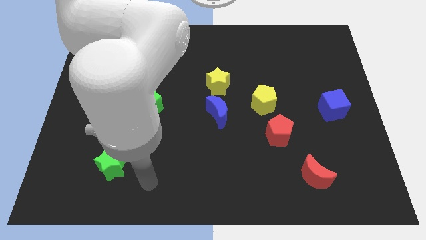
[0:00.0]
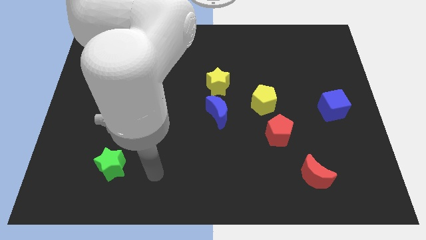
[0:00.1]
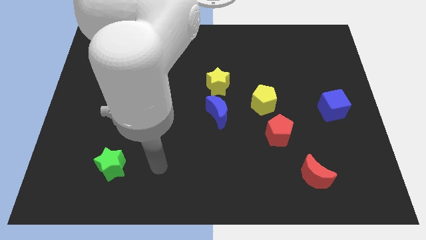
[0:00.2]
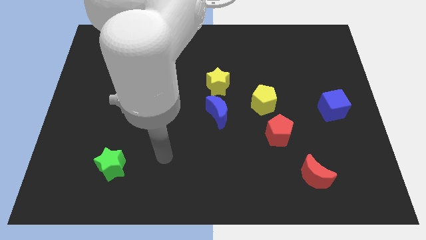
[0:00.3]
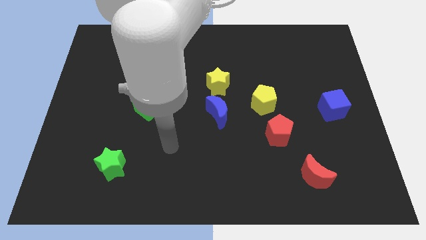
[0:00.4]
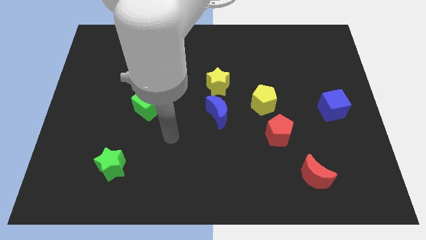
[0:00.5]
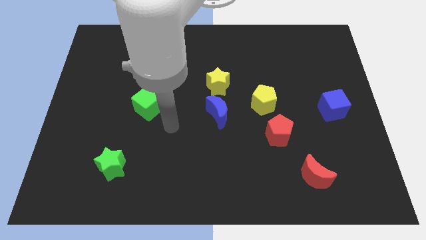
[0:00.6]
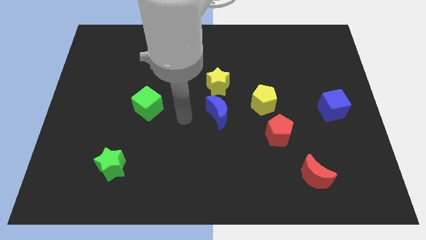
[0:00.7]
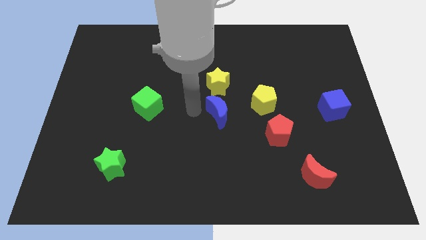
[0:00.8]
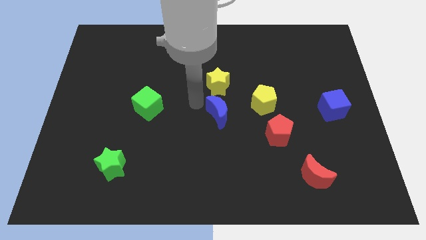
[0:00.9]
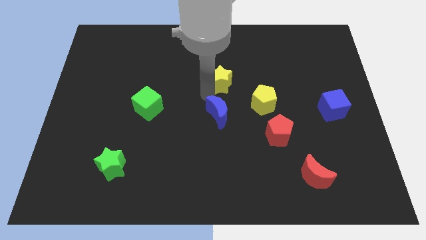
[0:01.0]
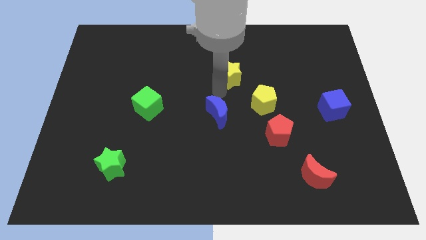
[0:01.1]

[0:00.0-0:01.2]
move the blue moon away from the yellow star

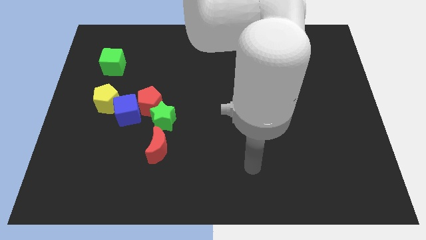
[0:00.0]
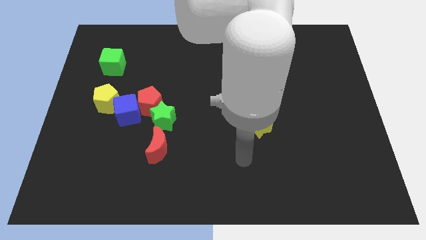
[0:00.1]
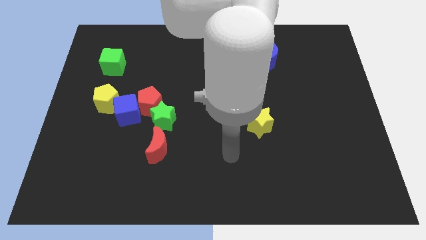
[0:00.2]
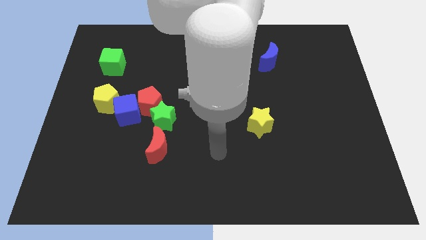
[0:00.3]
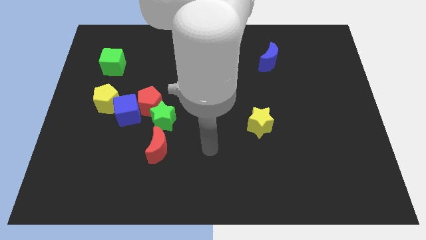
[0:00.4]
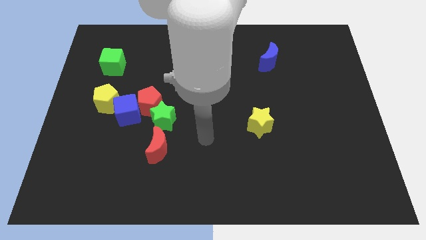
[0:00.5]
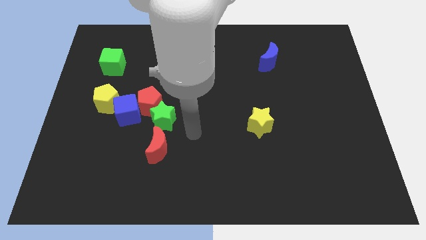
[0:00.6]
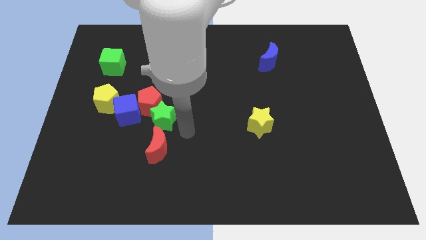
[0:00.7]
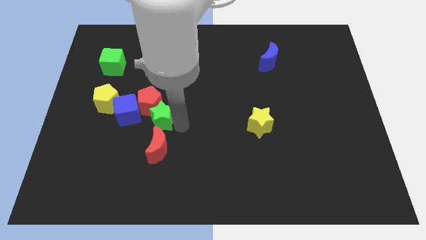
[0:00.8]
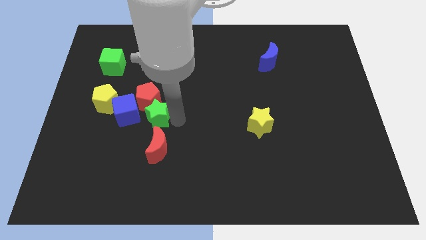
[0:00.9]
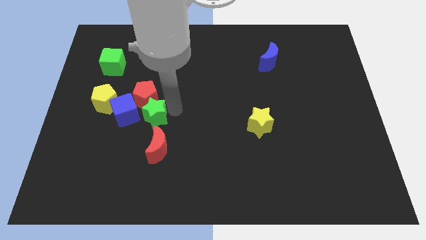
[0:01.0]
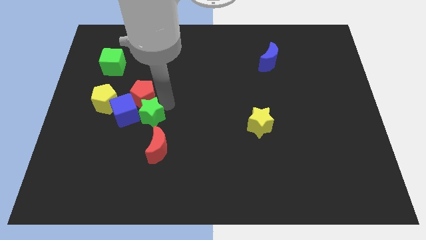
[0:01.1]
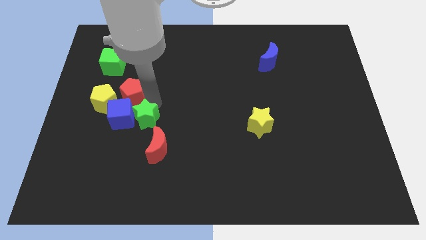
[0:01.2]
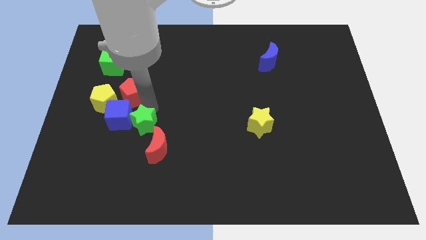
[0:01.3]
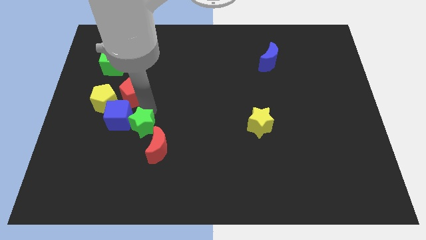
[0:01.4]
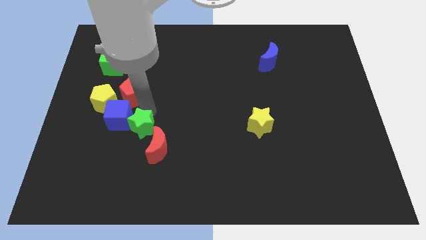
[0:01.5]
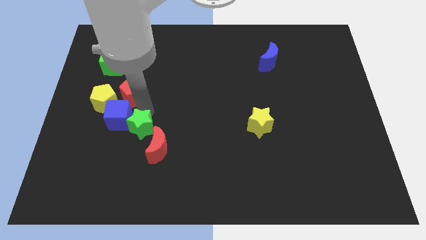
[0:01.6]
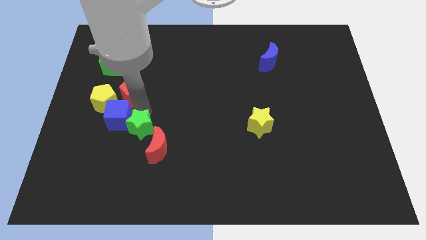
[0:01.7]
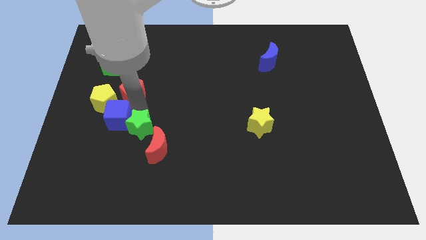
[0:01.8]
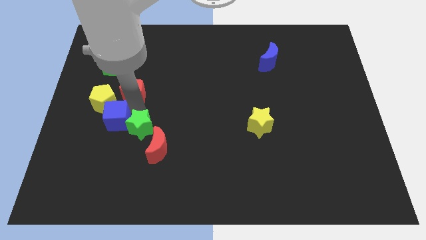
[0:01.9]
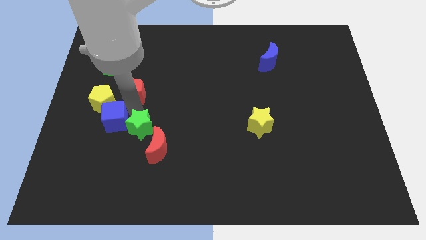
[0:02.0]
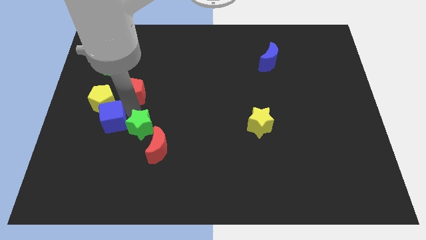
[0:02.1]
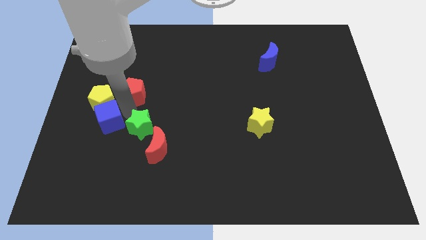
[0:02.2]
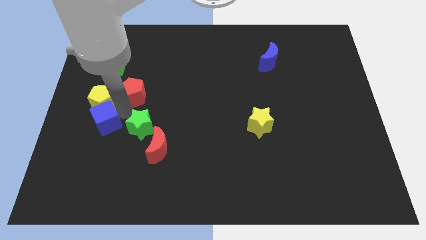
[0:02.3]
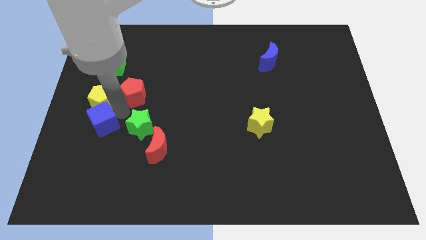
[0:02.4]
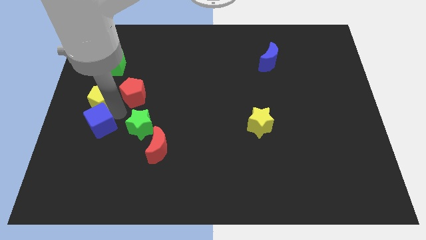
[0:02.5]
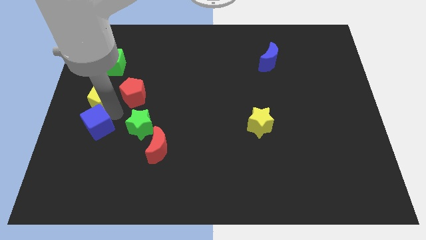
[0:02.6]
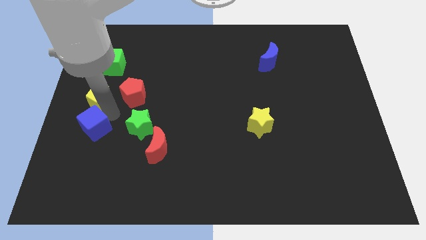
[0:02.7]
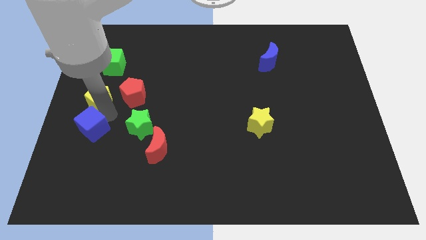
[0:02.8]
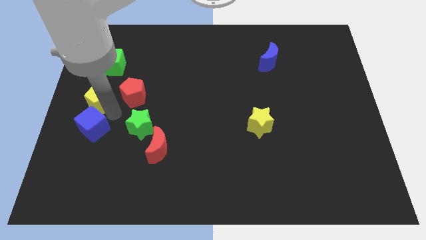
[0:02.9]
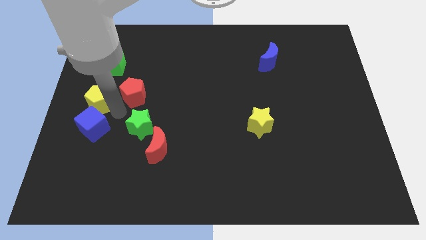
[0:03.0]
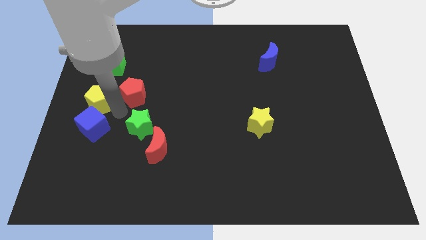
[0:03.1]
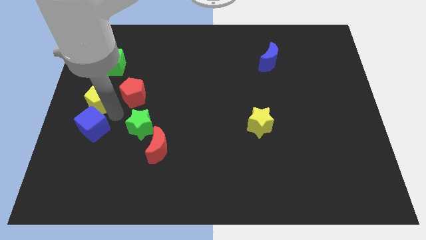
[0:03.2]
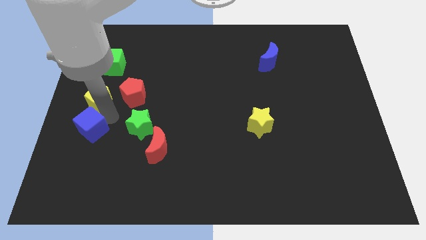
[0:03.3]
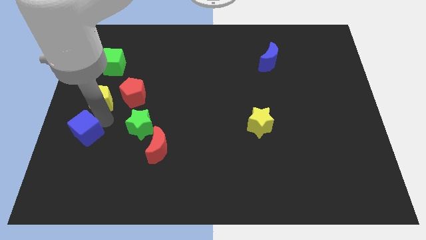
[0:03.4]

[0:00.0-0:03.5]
pull the blue cube apart from the red pentagon, yellow pentagon, and green star

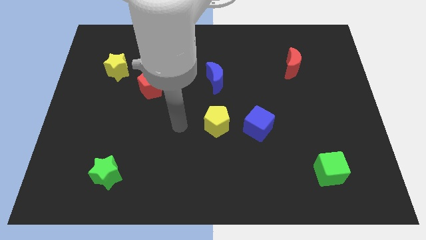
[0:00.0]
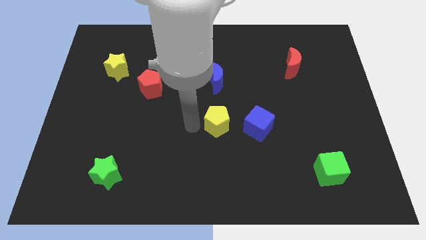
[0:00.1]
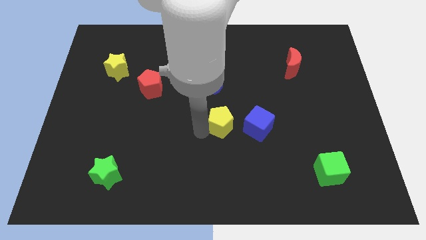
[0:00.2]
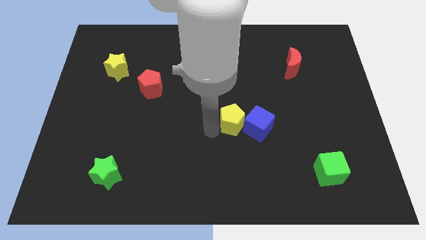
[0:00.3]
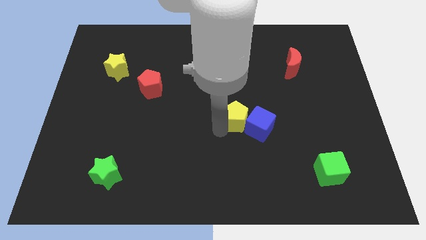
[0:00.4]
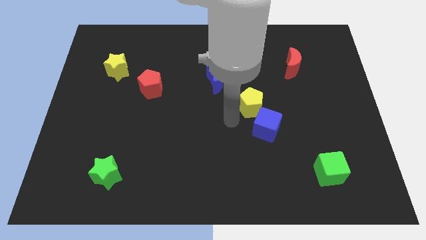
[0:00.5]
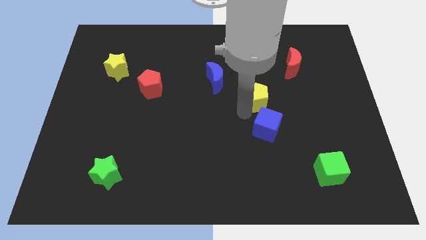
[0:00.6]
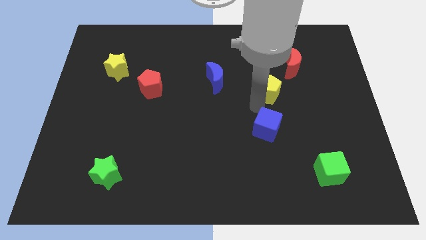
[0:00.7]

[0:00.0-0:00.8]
move the blue cube away from the yellow pentagon

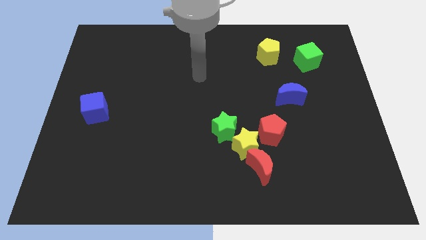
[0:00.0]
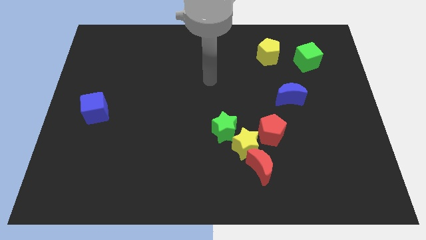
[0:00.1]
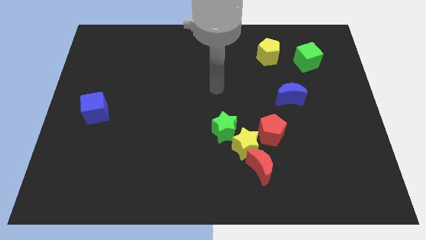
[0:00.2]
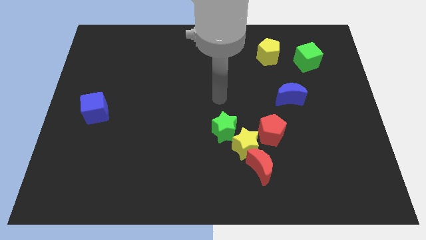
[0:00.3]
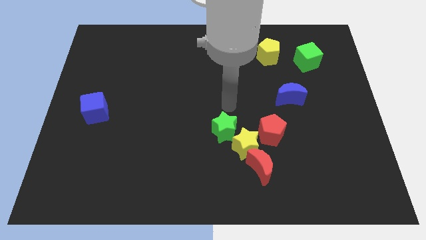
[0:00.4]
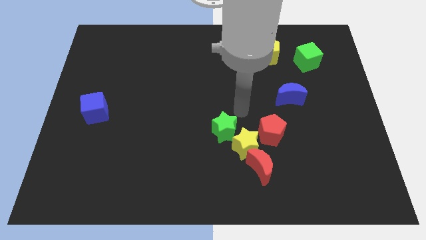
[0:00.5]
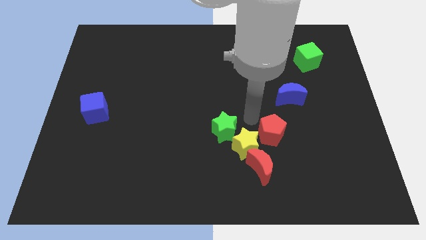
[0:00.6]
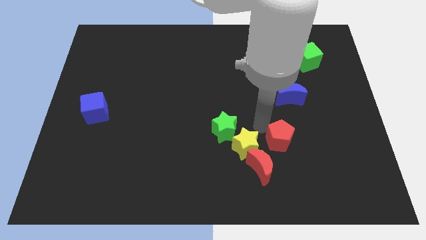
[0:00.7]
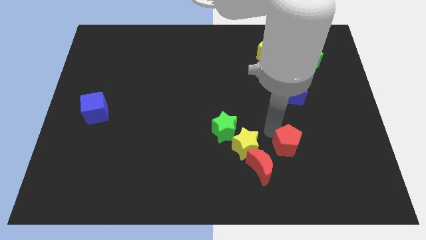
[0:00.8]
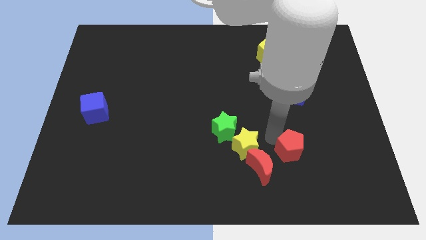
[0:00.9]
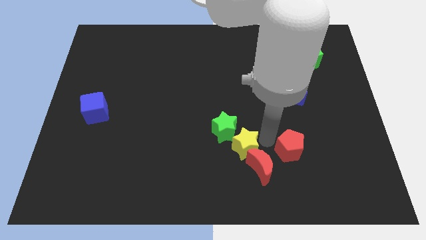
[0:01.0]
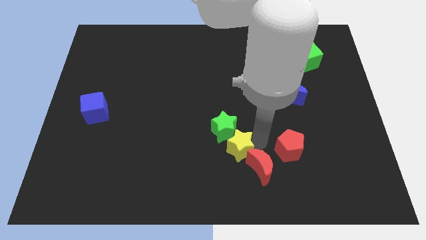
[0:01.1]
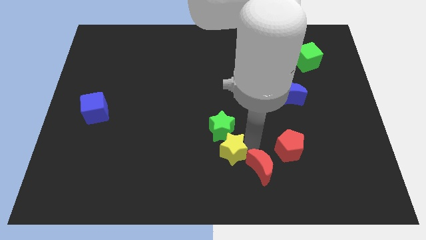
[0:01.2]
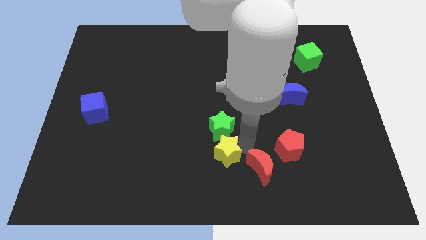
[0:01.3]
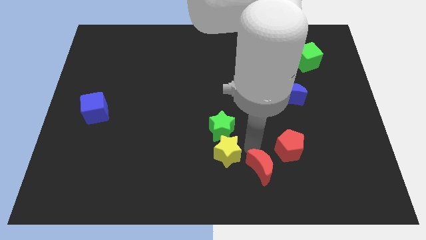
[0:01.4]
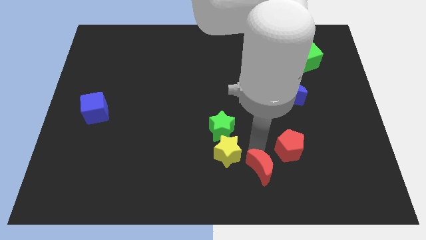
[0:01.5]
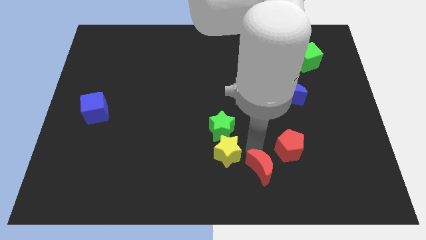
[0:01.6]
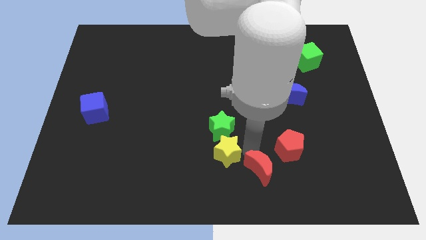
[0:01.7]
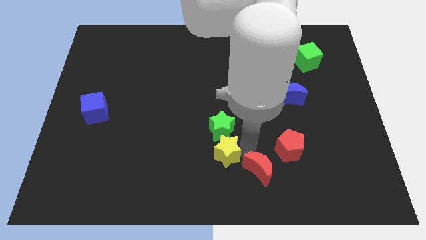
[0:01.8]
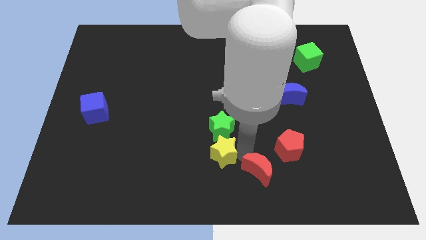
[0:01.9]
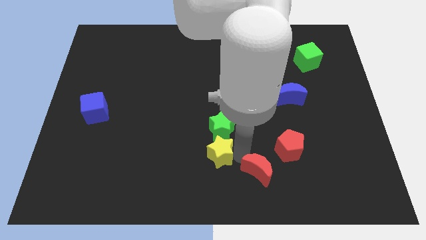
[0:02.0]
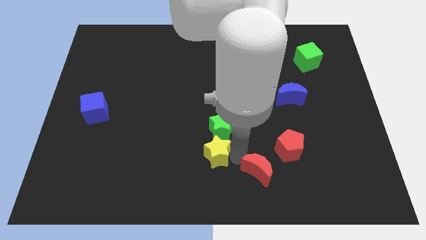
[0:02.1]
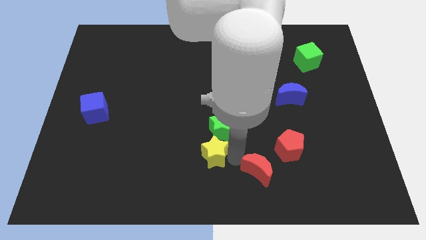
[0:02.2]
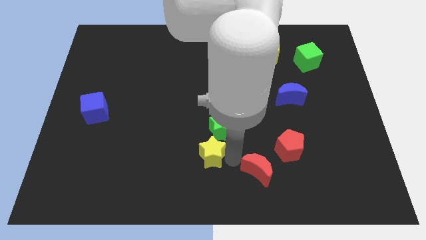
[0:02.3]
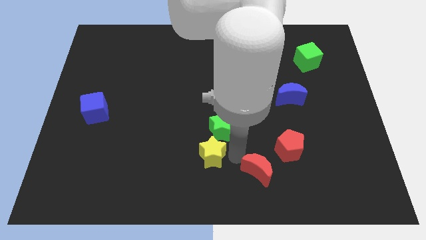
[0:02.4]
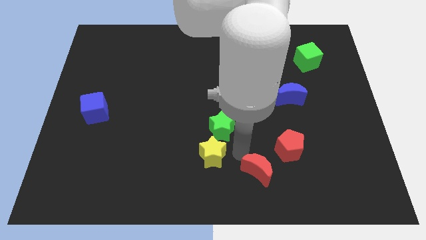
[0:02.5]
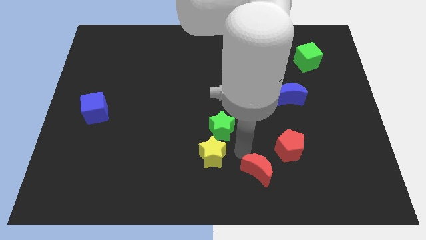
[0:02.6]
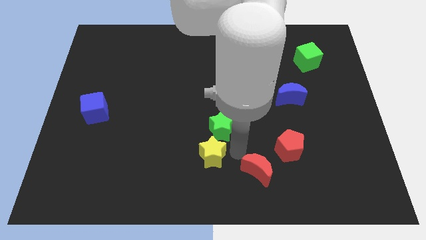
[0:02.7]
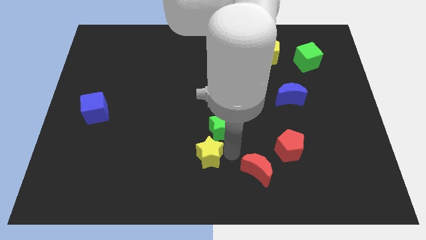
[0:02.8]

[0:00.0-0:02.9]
separate the yellow star from the green star, red moon, and red pentagon

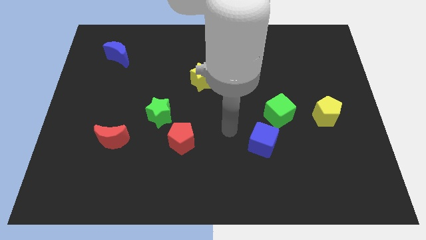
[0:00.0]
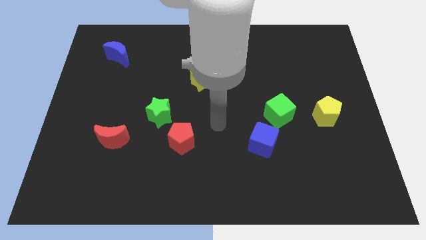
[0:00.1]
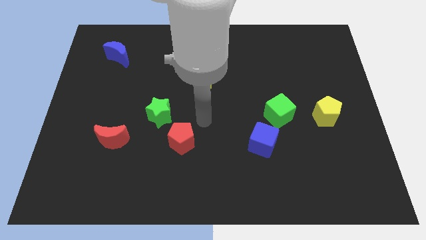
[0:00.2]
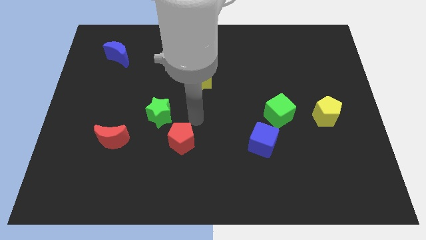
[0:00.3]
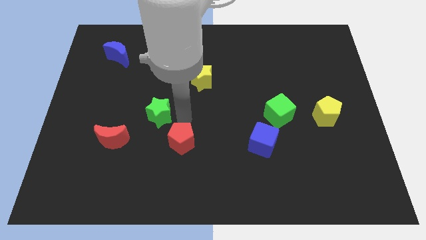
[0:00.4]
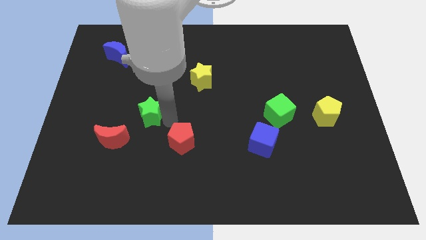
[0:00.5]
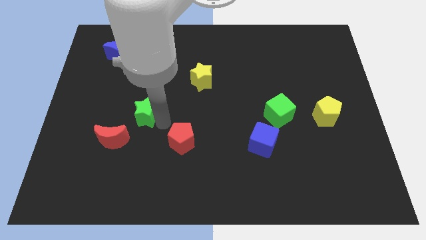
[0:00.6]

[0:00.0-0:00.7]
pull the red pentagon apart from the green star

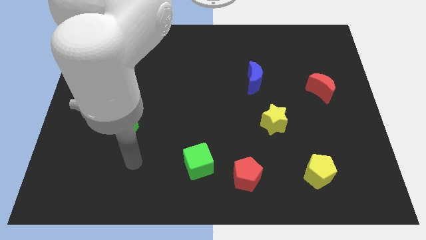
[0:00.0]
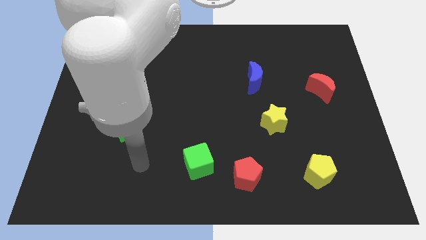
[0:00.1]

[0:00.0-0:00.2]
move the red pentagon away from the green cube
